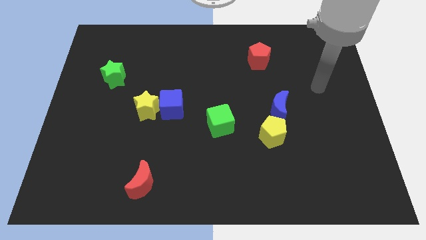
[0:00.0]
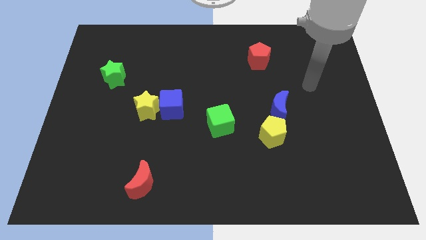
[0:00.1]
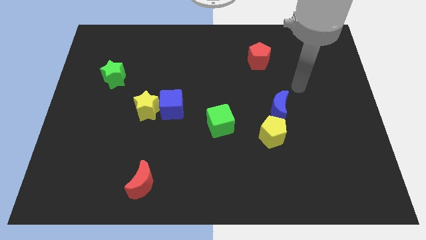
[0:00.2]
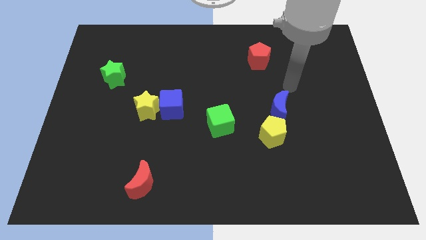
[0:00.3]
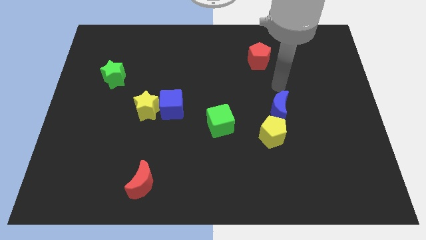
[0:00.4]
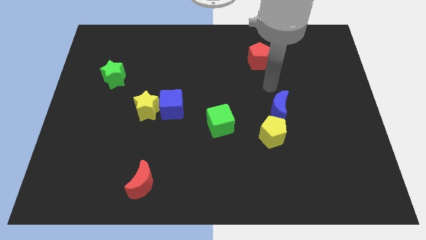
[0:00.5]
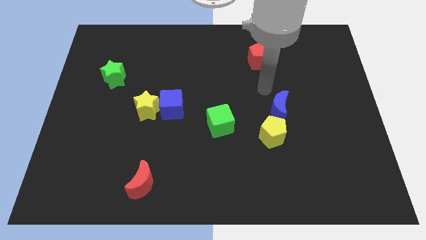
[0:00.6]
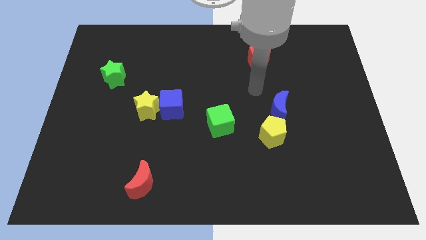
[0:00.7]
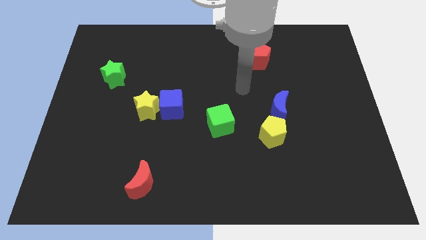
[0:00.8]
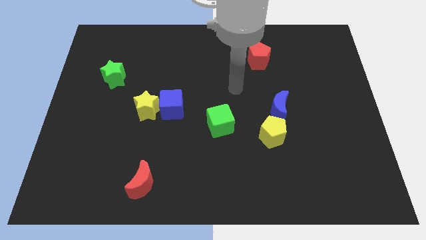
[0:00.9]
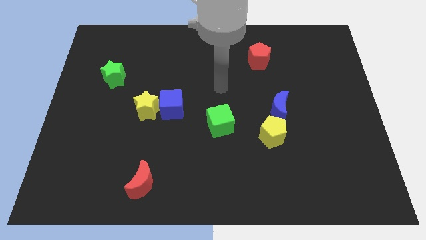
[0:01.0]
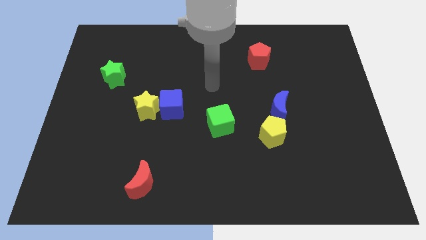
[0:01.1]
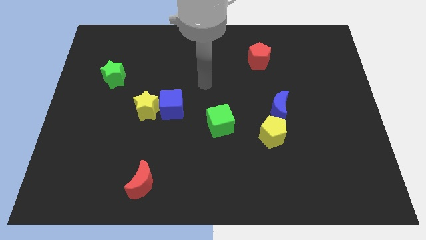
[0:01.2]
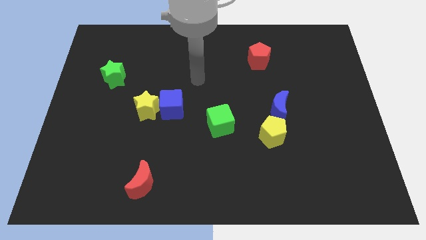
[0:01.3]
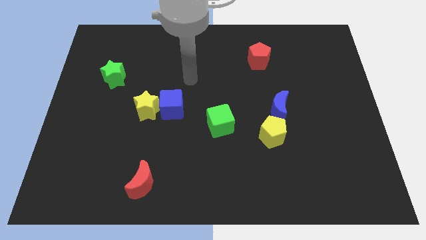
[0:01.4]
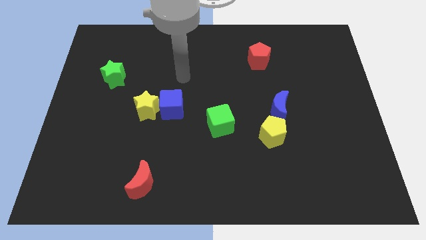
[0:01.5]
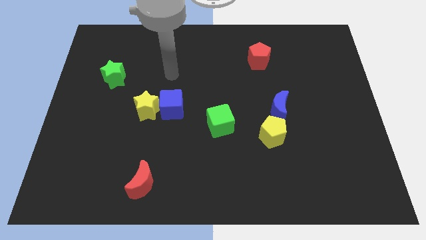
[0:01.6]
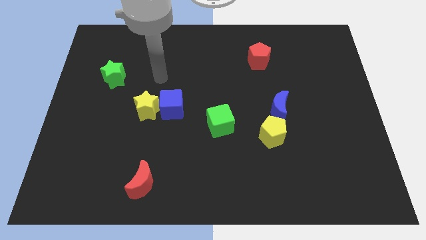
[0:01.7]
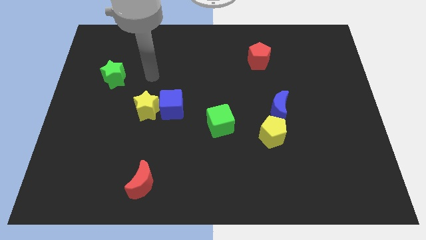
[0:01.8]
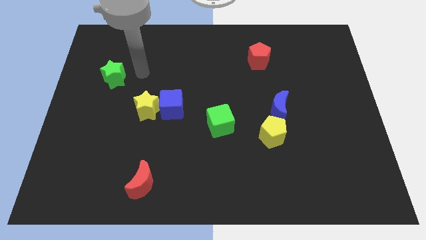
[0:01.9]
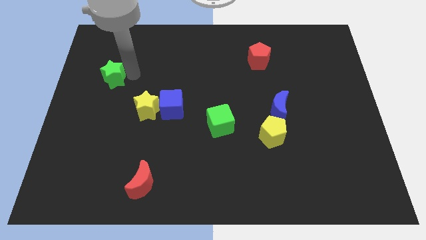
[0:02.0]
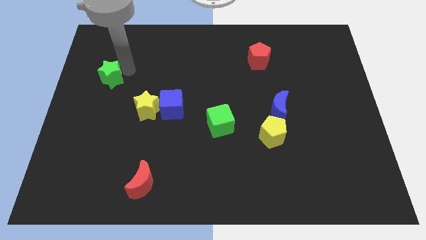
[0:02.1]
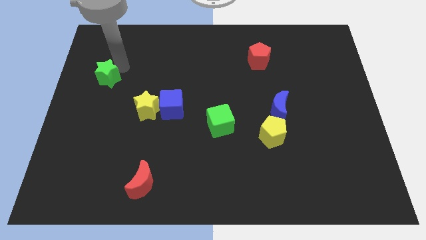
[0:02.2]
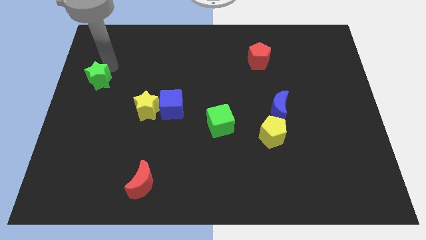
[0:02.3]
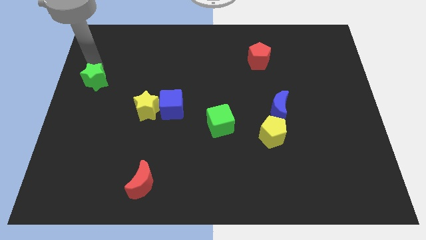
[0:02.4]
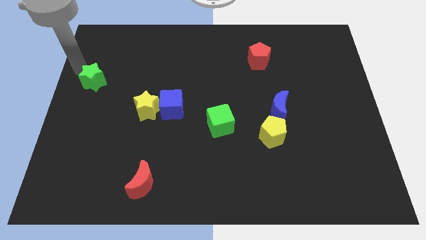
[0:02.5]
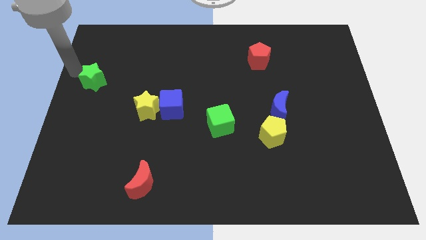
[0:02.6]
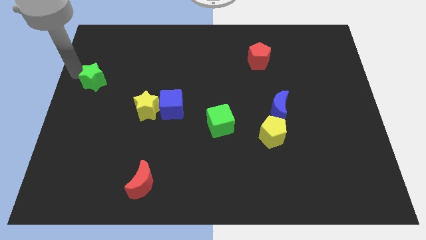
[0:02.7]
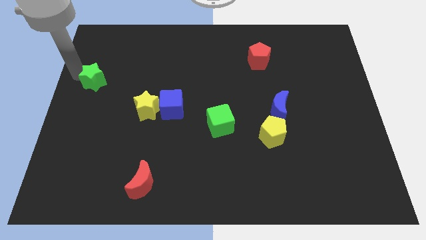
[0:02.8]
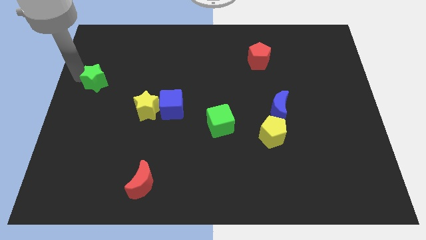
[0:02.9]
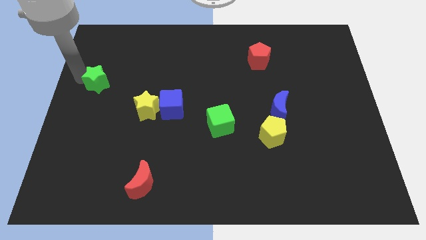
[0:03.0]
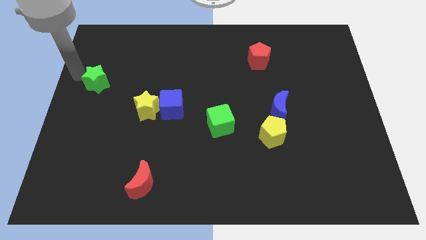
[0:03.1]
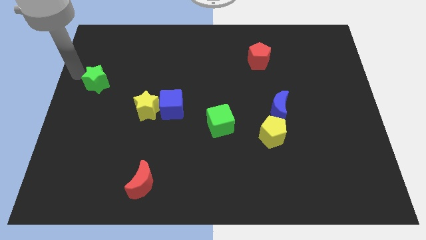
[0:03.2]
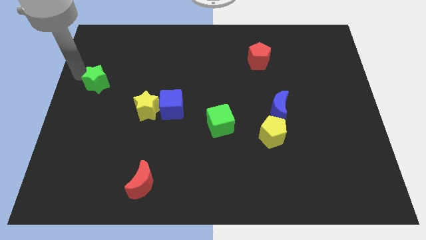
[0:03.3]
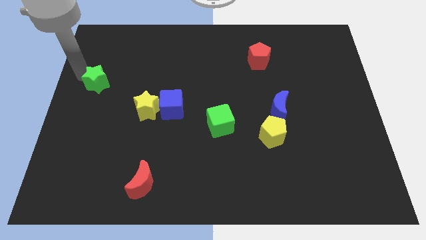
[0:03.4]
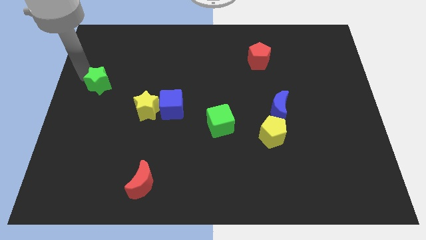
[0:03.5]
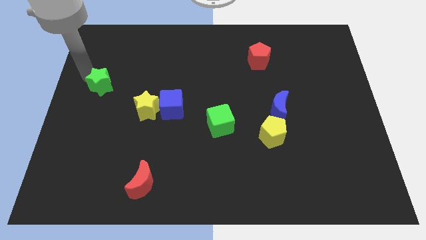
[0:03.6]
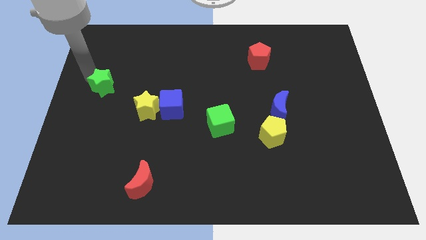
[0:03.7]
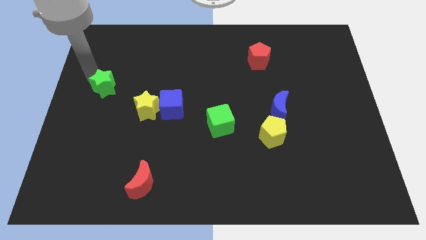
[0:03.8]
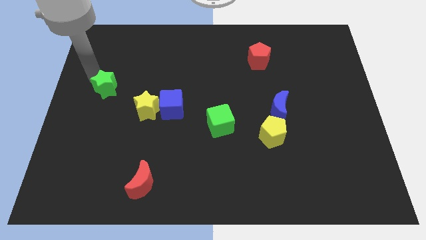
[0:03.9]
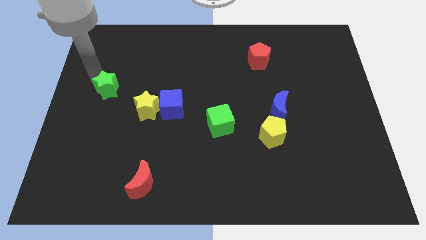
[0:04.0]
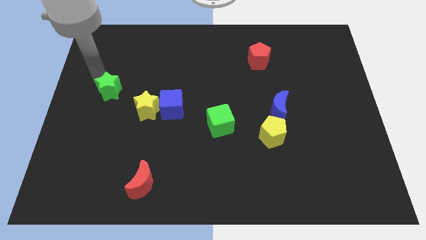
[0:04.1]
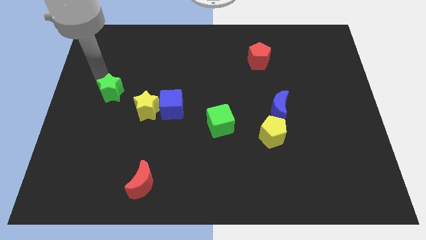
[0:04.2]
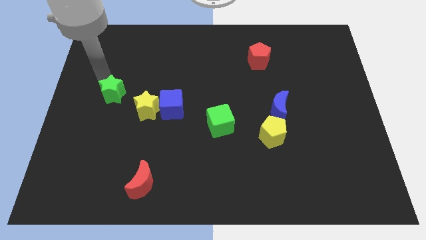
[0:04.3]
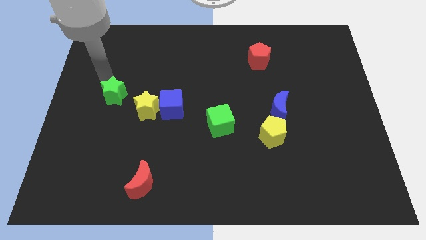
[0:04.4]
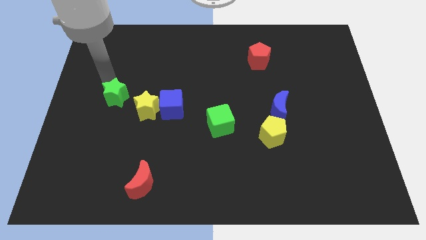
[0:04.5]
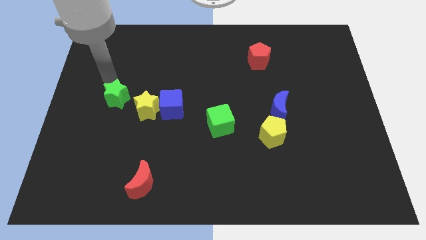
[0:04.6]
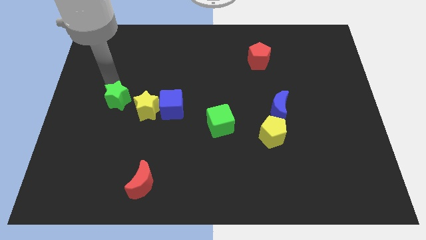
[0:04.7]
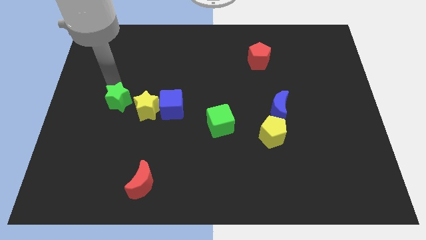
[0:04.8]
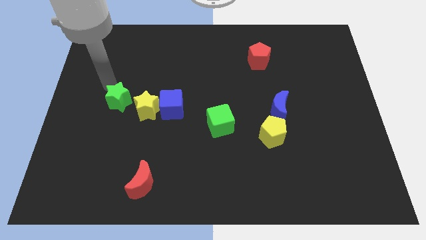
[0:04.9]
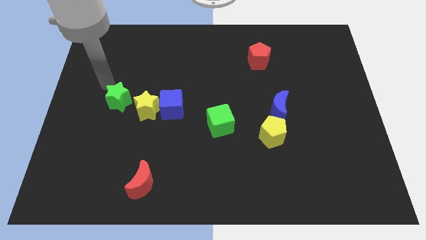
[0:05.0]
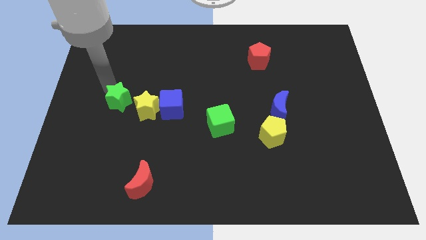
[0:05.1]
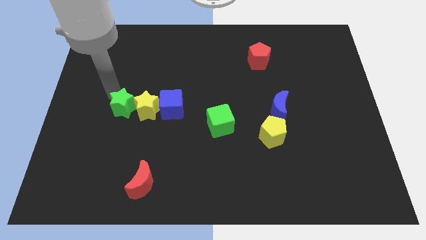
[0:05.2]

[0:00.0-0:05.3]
slightly move the green star down and to the right

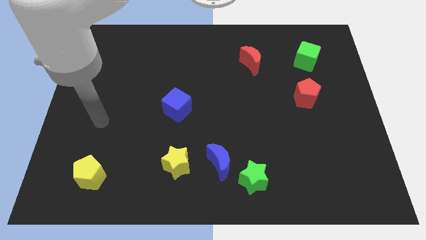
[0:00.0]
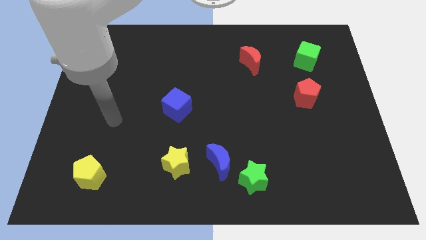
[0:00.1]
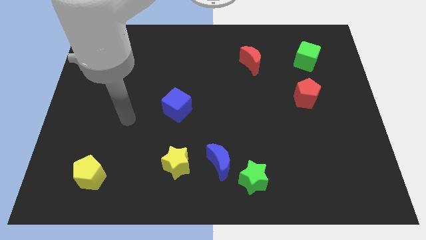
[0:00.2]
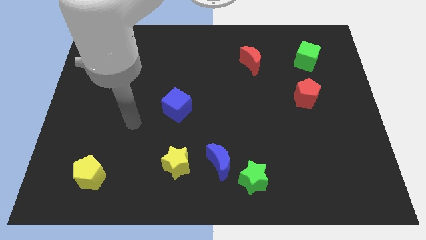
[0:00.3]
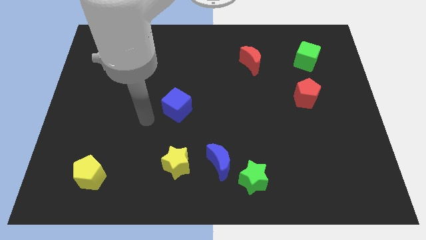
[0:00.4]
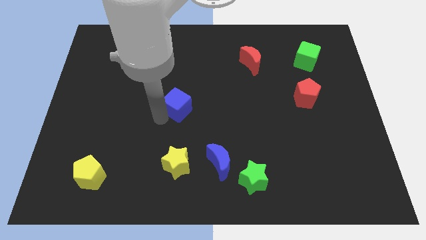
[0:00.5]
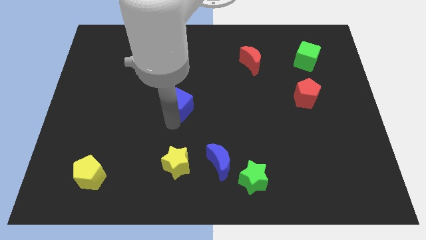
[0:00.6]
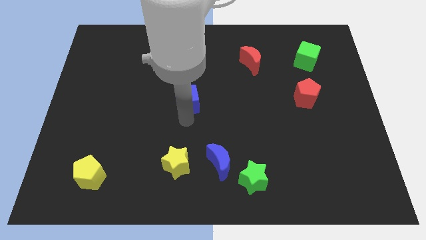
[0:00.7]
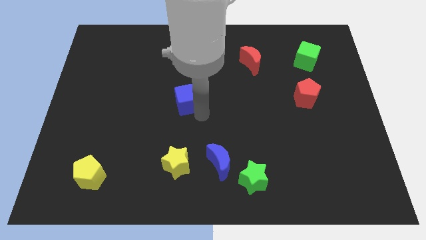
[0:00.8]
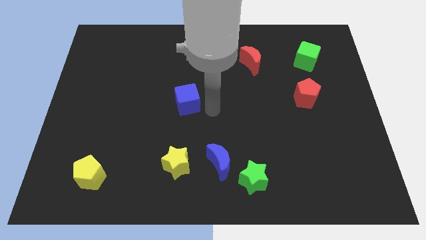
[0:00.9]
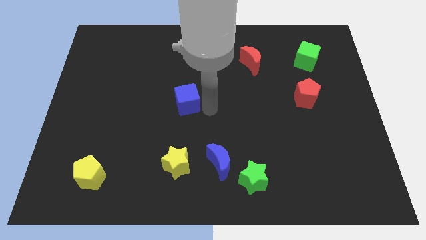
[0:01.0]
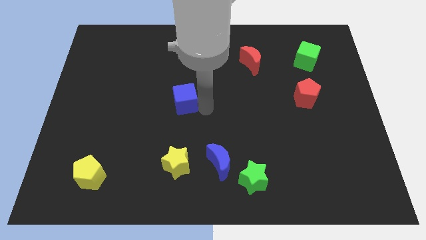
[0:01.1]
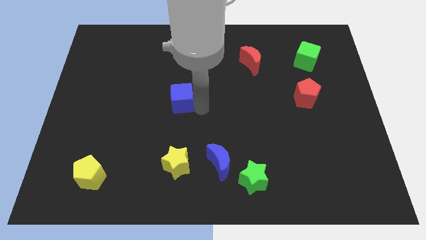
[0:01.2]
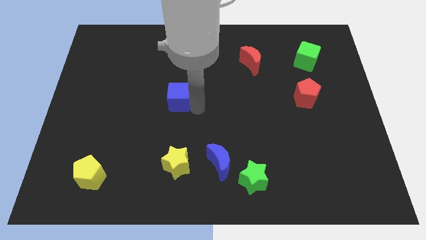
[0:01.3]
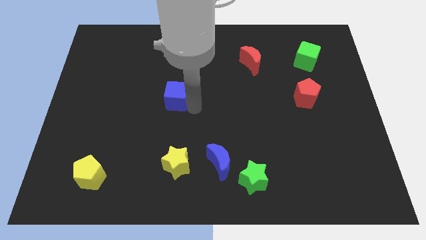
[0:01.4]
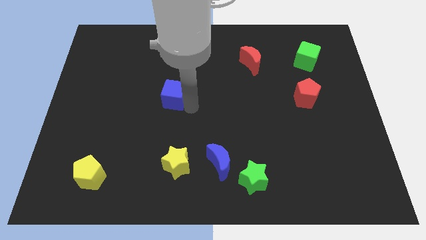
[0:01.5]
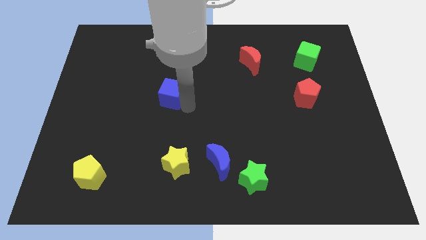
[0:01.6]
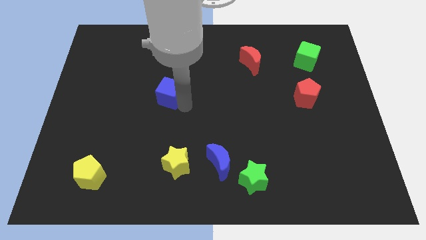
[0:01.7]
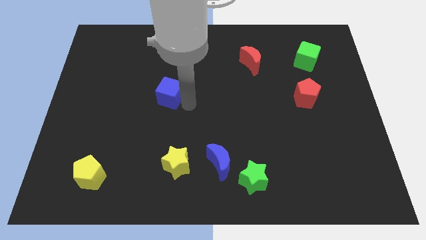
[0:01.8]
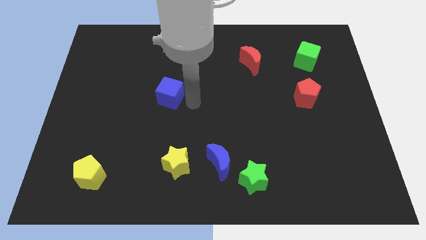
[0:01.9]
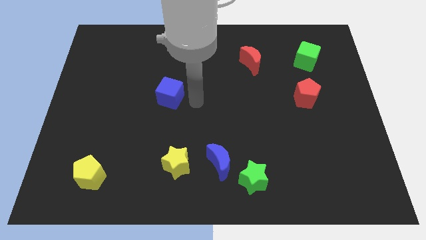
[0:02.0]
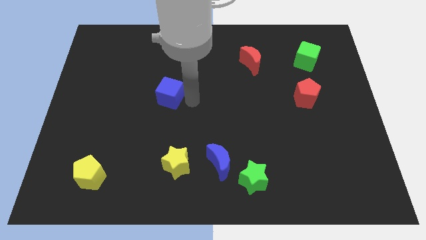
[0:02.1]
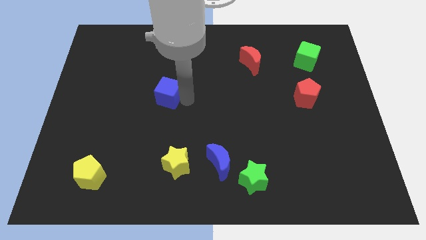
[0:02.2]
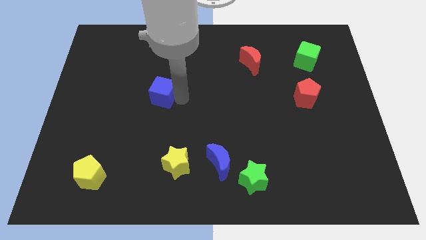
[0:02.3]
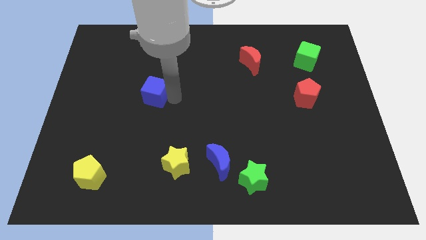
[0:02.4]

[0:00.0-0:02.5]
slightly push the blue cube diagonally up and left

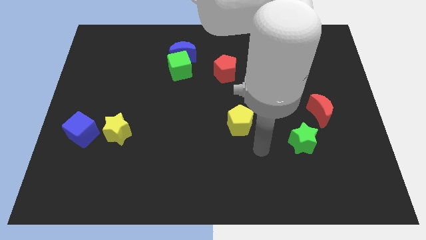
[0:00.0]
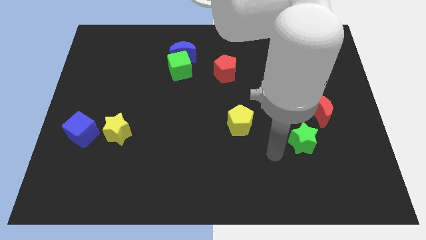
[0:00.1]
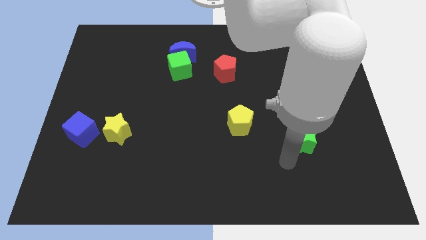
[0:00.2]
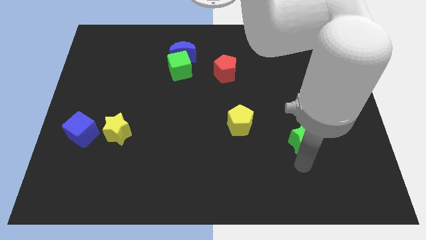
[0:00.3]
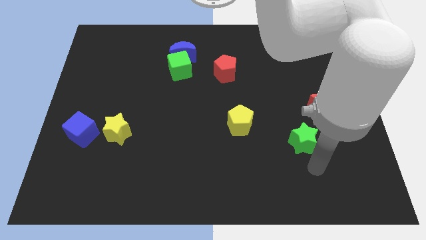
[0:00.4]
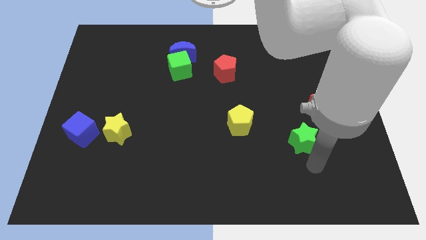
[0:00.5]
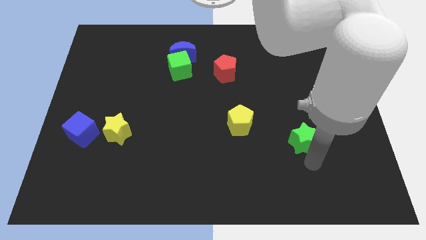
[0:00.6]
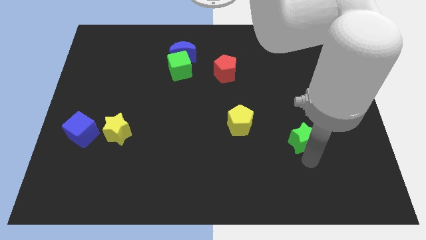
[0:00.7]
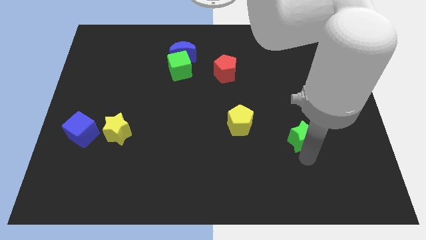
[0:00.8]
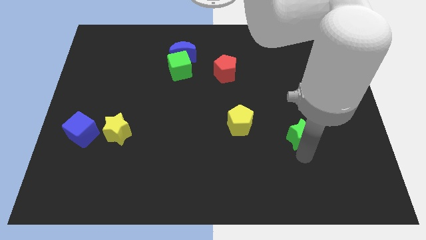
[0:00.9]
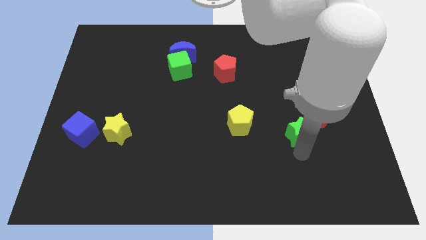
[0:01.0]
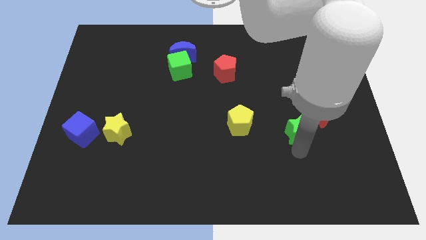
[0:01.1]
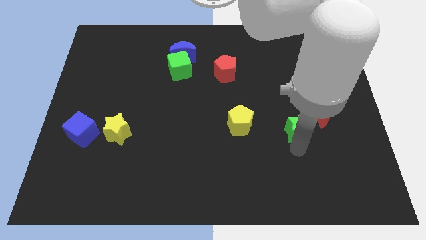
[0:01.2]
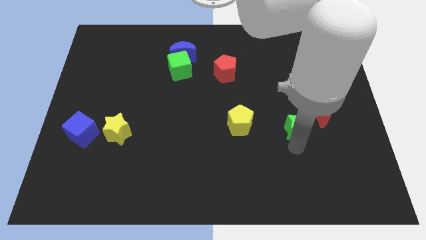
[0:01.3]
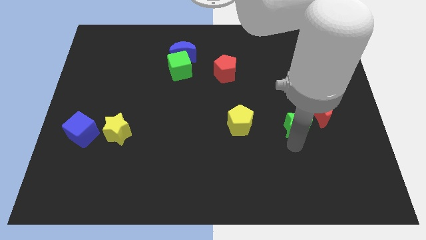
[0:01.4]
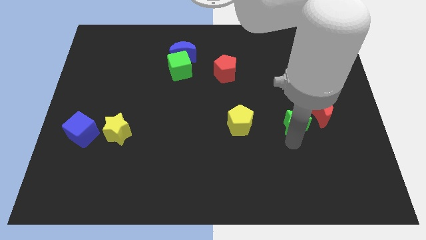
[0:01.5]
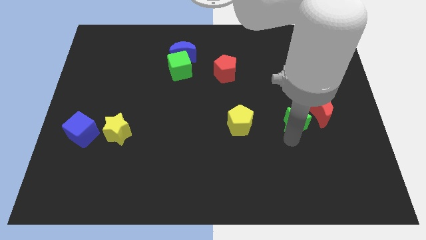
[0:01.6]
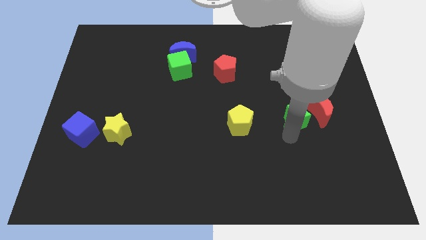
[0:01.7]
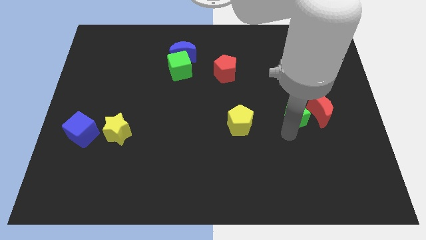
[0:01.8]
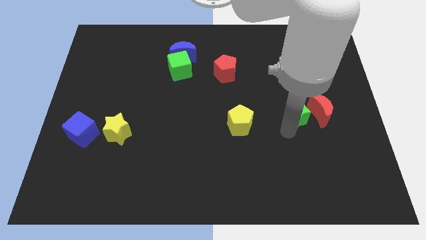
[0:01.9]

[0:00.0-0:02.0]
move the green star up a little
